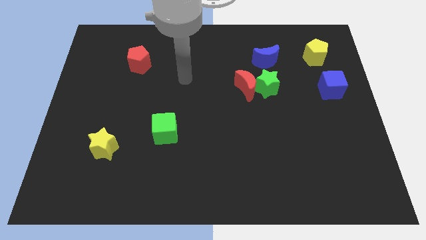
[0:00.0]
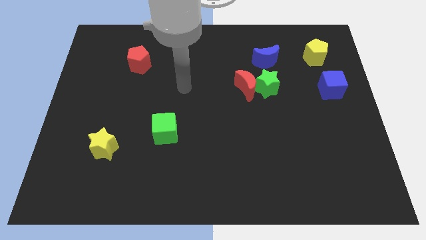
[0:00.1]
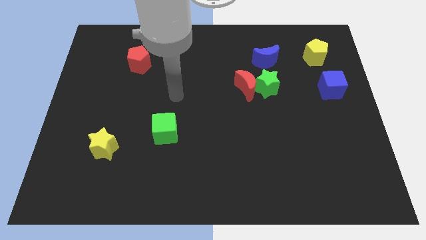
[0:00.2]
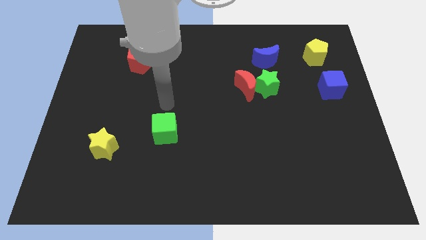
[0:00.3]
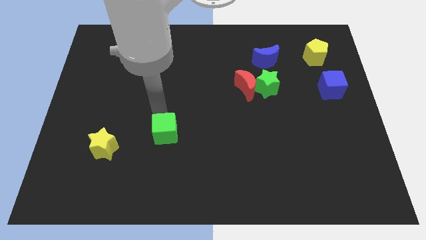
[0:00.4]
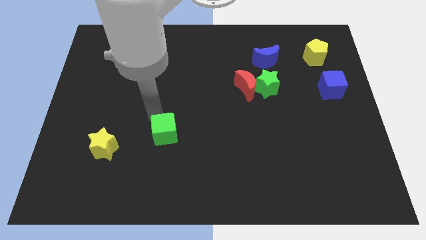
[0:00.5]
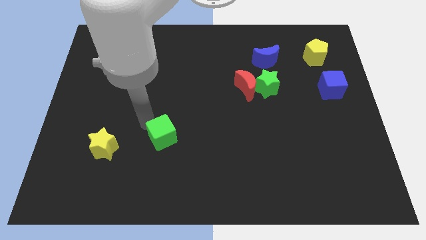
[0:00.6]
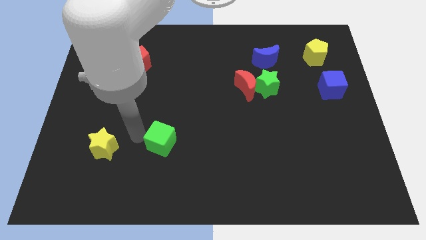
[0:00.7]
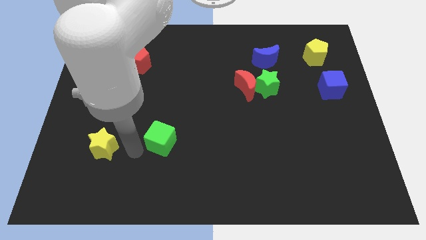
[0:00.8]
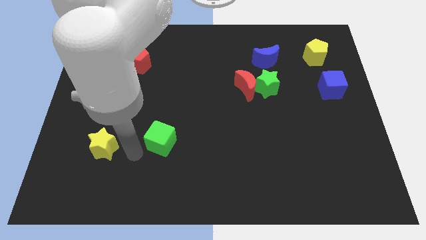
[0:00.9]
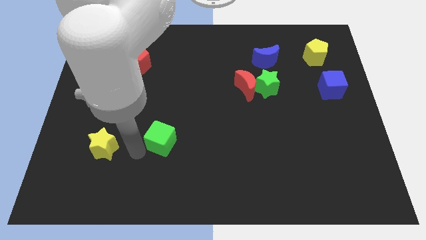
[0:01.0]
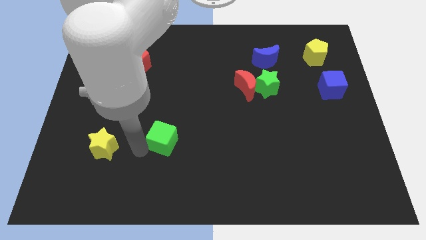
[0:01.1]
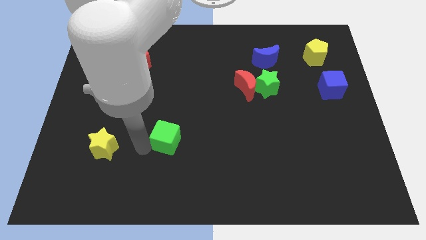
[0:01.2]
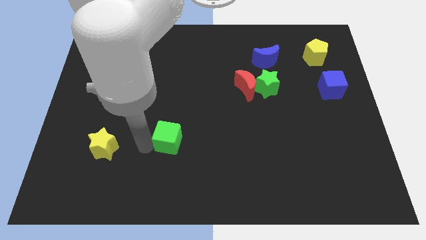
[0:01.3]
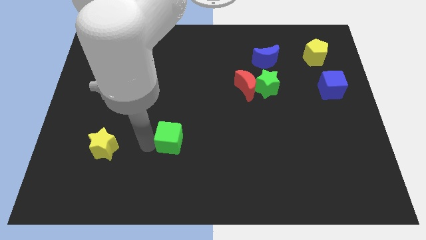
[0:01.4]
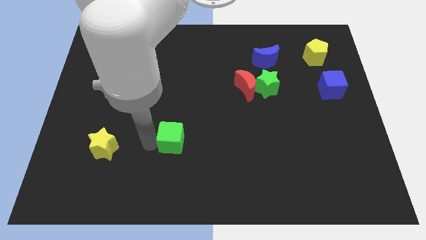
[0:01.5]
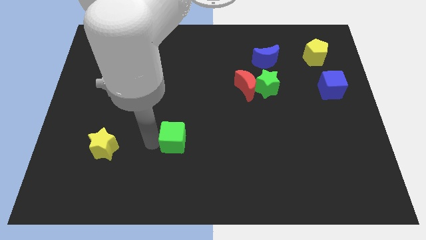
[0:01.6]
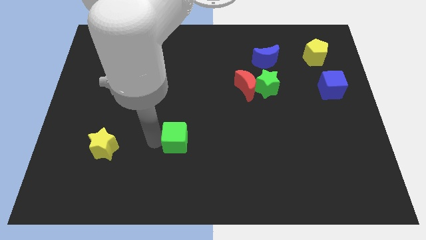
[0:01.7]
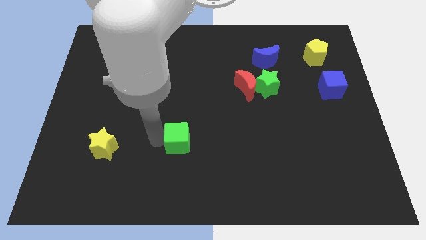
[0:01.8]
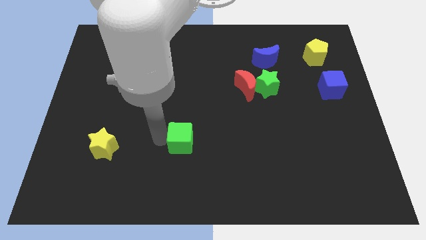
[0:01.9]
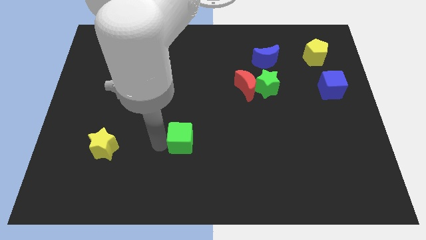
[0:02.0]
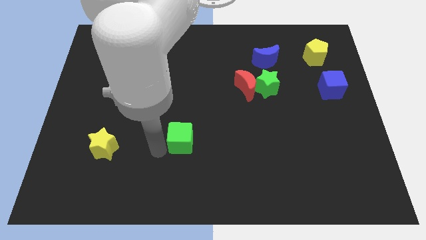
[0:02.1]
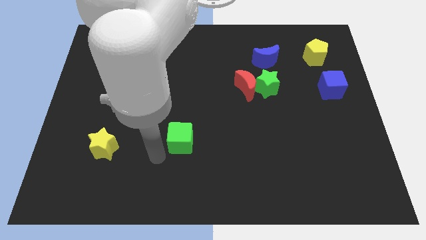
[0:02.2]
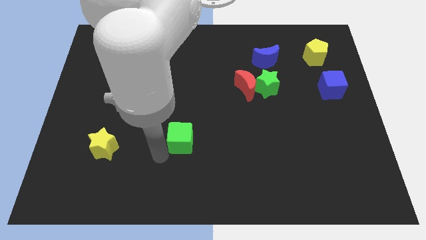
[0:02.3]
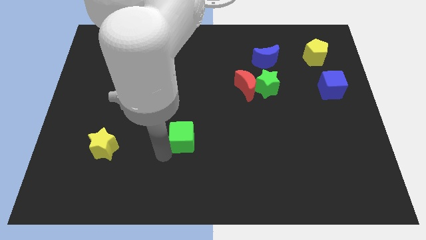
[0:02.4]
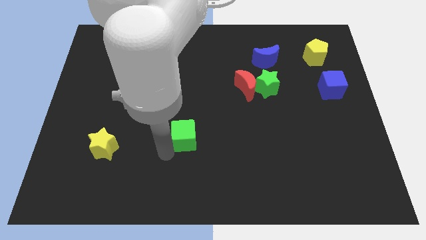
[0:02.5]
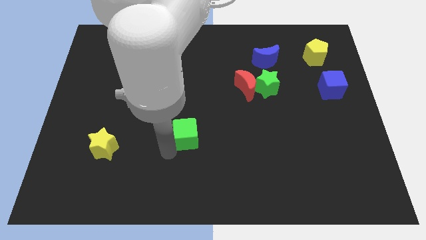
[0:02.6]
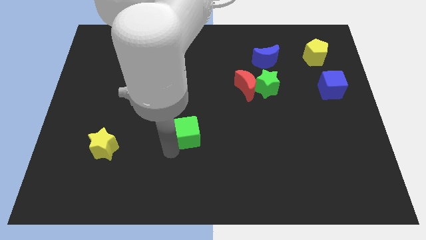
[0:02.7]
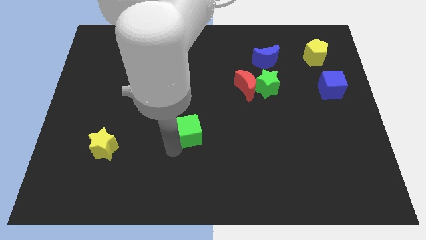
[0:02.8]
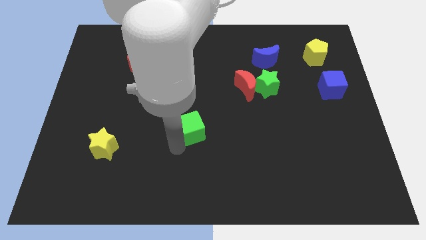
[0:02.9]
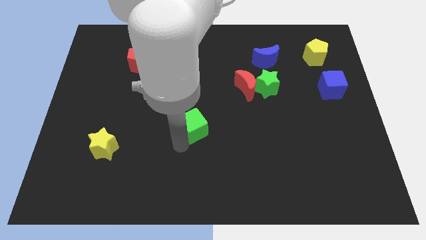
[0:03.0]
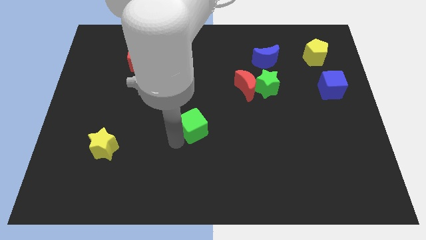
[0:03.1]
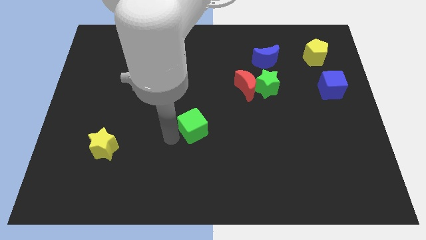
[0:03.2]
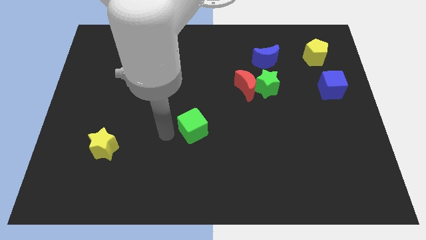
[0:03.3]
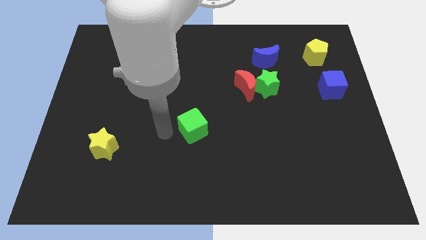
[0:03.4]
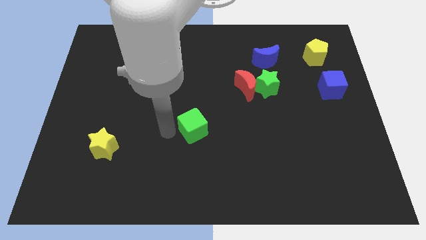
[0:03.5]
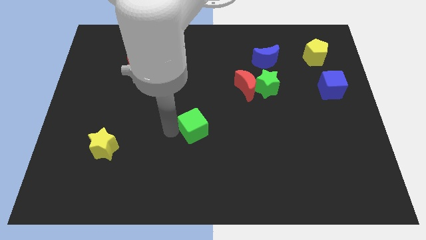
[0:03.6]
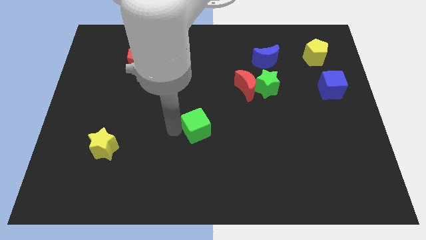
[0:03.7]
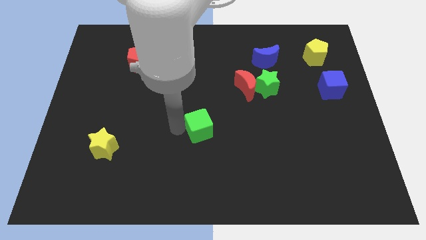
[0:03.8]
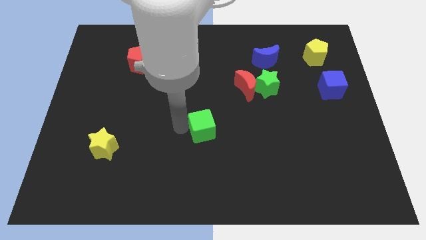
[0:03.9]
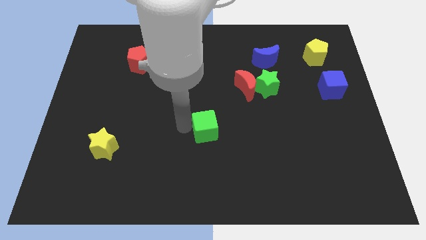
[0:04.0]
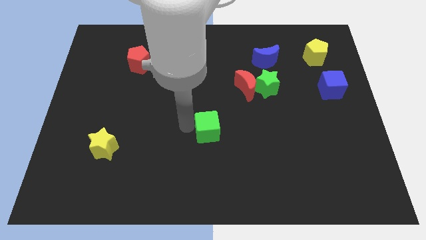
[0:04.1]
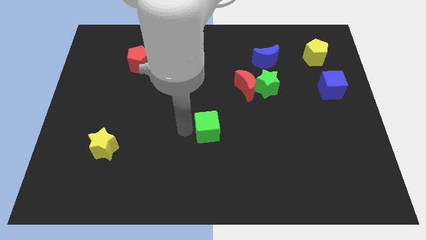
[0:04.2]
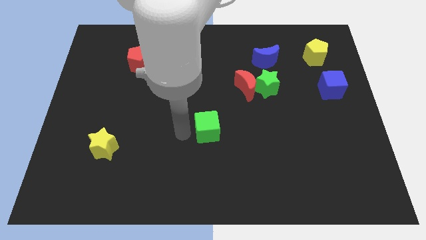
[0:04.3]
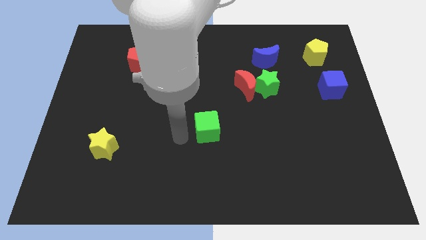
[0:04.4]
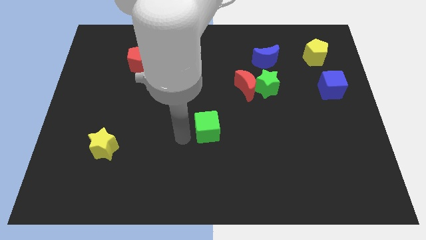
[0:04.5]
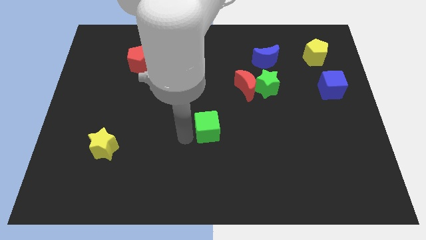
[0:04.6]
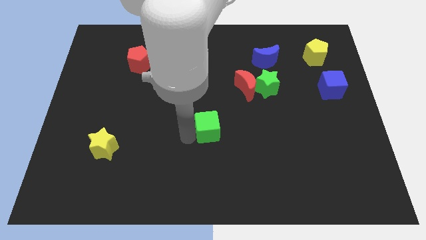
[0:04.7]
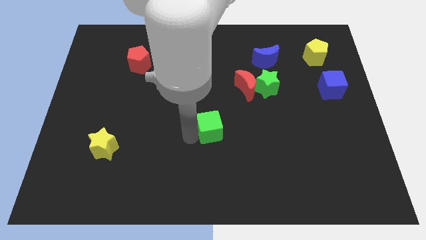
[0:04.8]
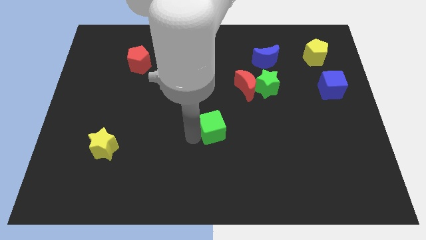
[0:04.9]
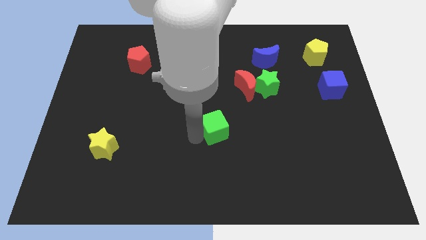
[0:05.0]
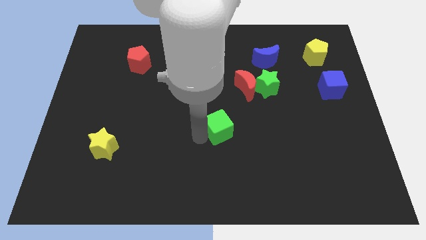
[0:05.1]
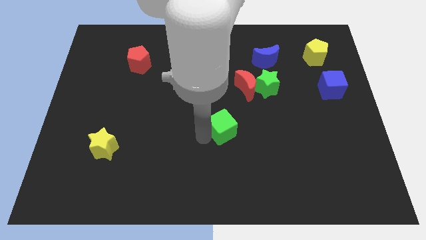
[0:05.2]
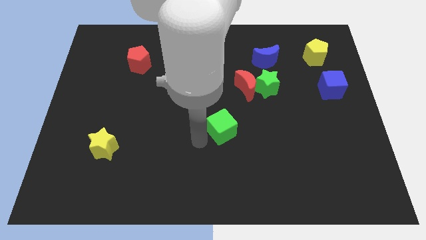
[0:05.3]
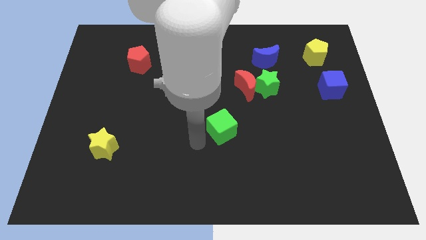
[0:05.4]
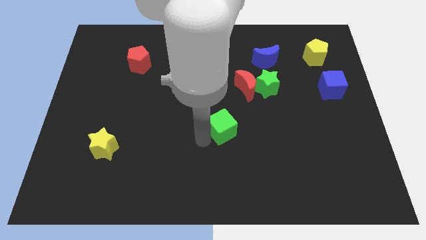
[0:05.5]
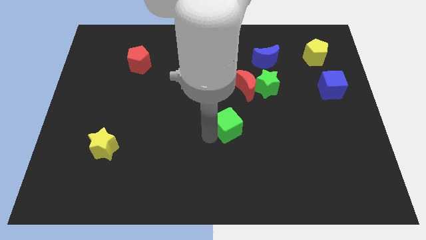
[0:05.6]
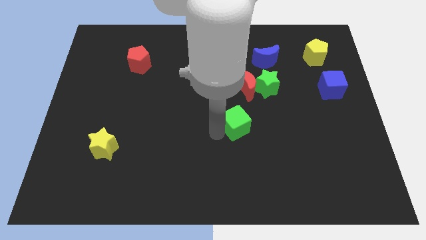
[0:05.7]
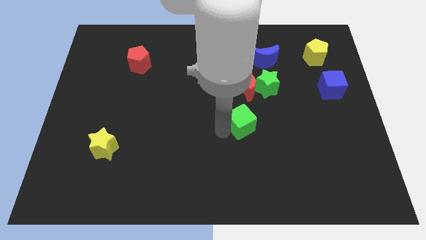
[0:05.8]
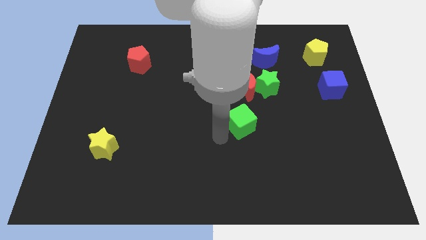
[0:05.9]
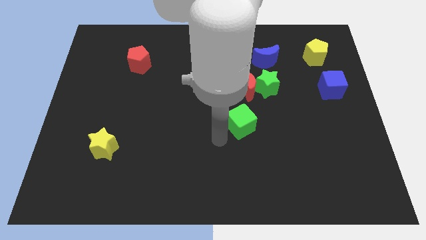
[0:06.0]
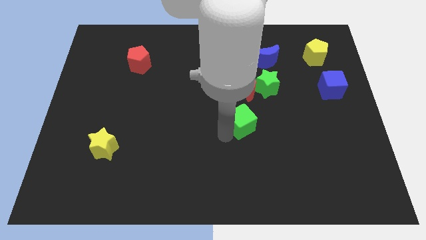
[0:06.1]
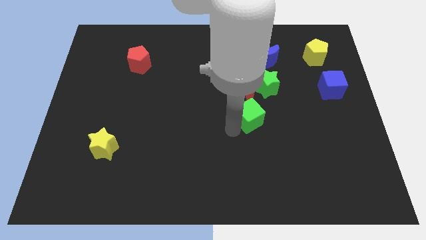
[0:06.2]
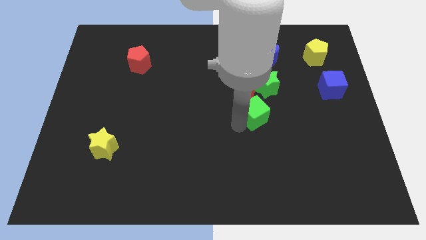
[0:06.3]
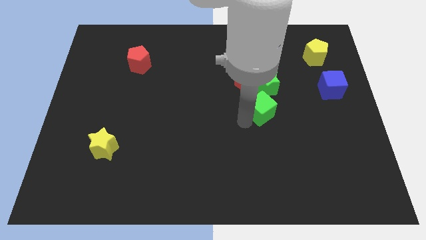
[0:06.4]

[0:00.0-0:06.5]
push the green cube to the bottom right side of the red moon
